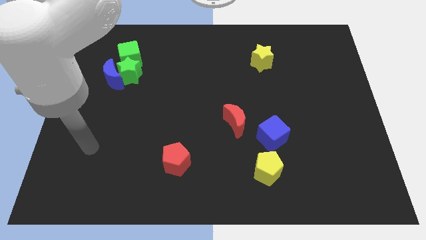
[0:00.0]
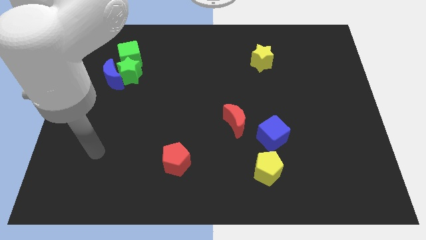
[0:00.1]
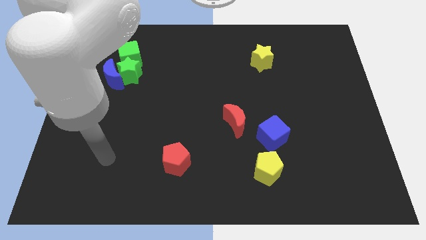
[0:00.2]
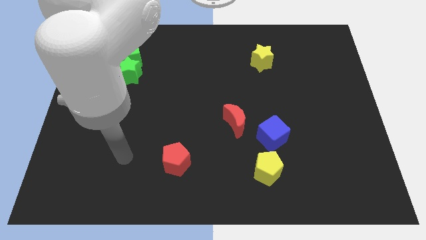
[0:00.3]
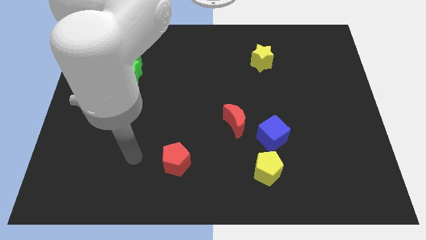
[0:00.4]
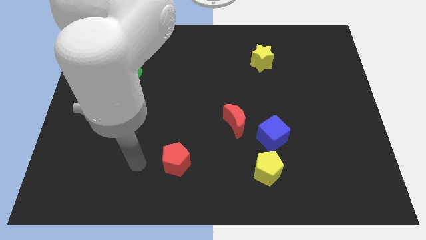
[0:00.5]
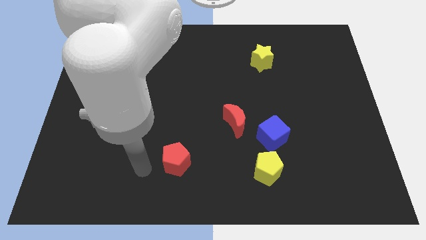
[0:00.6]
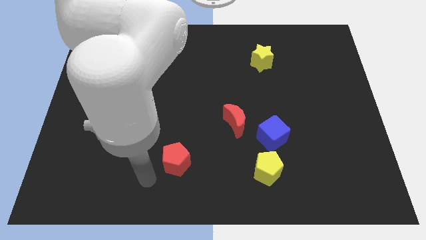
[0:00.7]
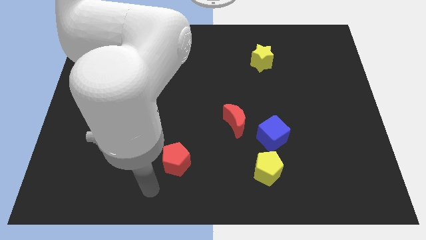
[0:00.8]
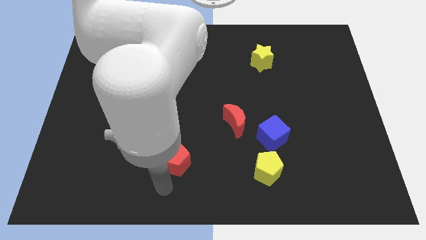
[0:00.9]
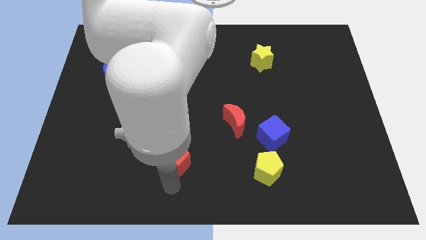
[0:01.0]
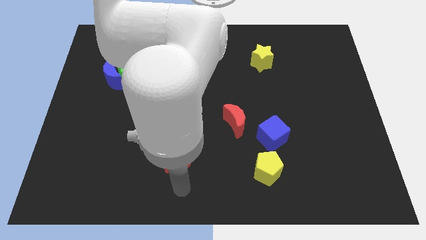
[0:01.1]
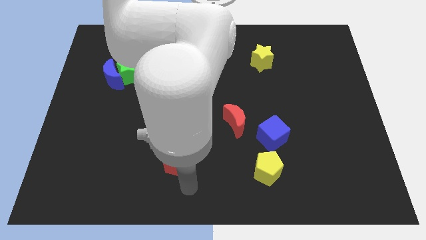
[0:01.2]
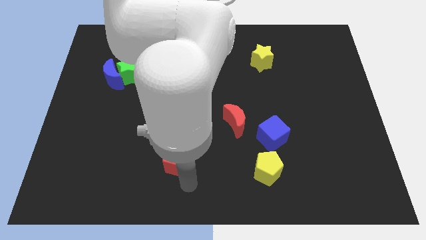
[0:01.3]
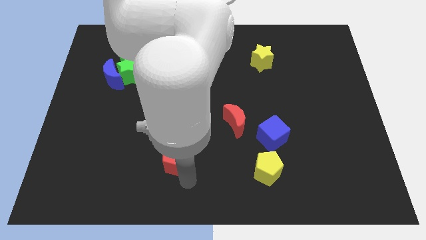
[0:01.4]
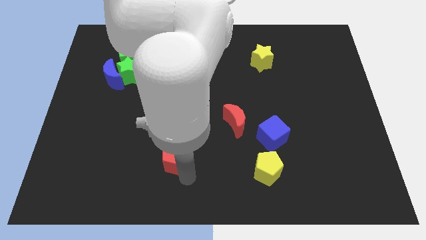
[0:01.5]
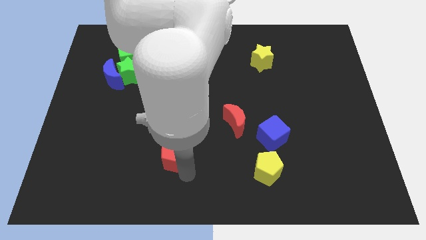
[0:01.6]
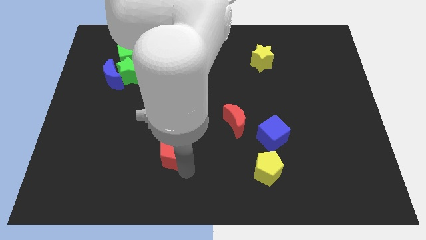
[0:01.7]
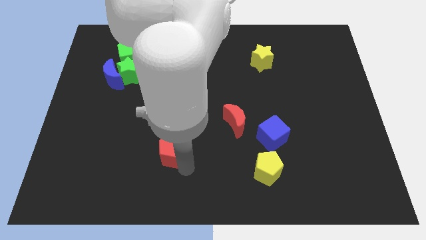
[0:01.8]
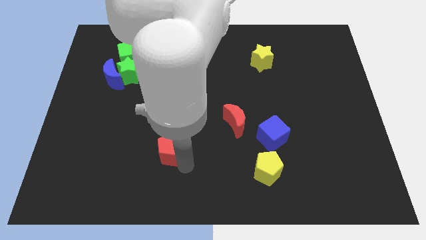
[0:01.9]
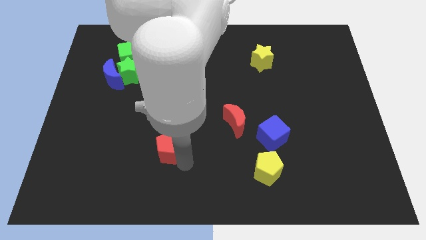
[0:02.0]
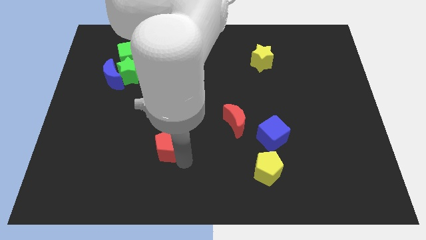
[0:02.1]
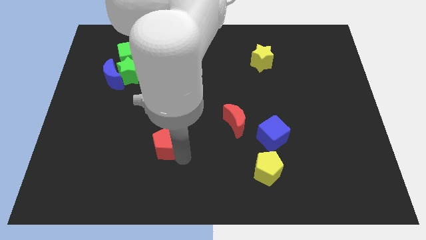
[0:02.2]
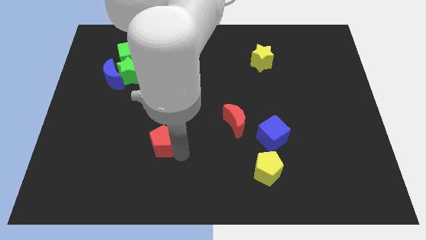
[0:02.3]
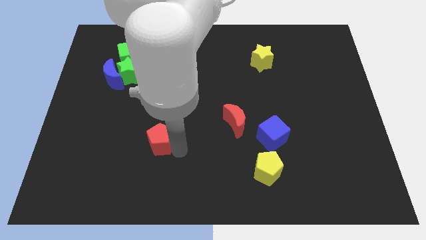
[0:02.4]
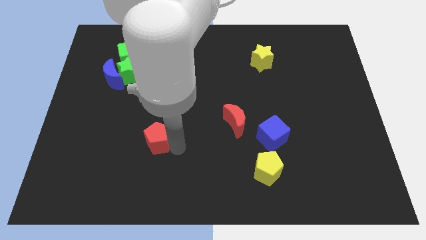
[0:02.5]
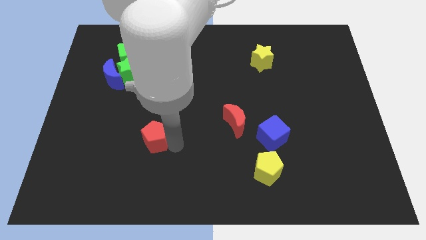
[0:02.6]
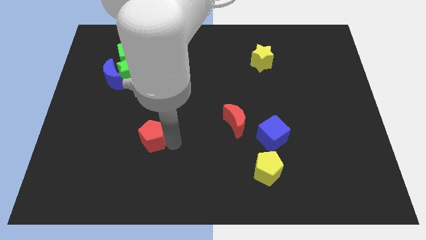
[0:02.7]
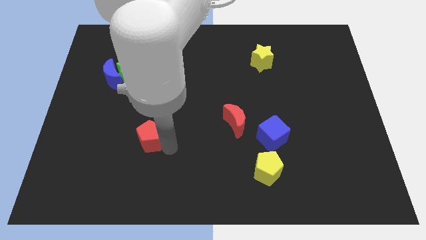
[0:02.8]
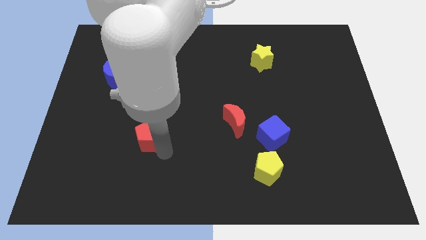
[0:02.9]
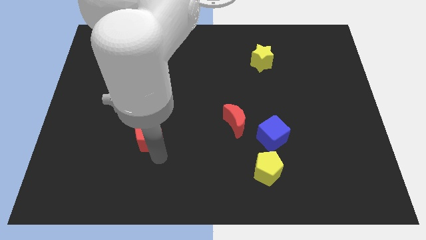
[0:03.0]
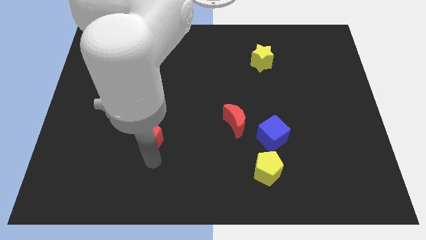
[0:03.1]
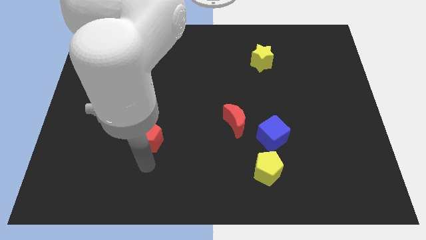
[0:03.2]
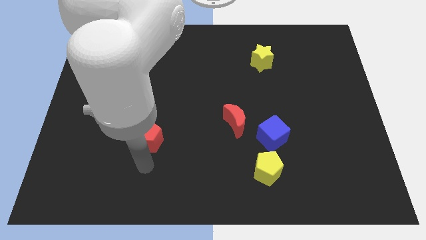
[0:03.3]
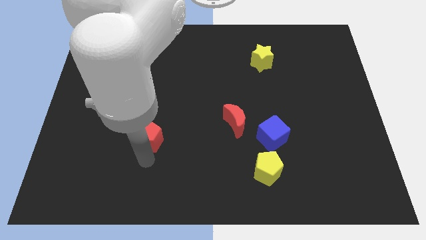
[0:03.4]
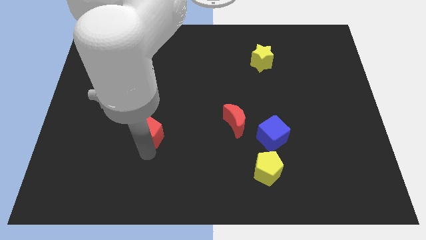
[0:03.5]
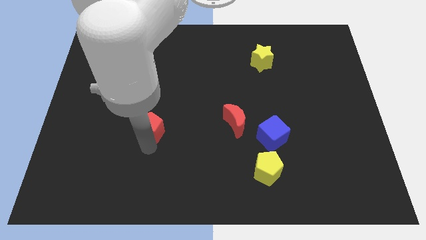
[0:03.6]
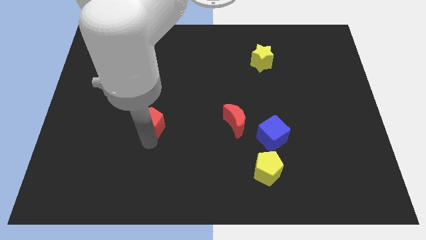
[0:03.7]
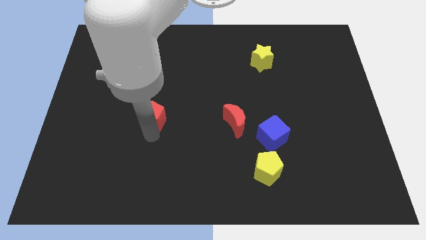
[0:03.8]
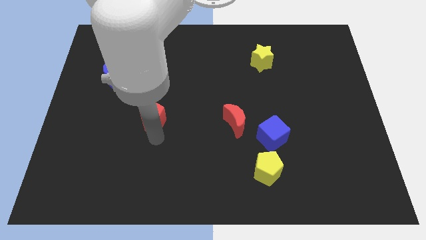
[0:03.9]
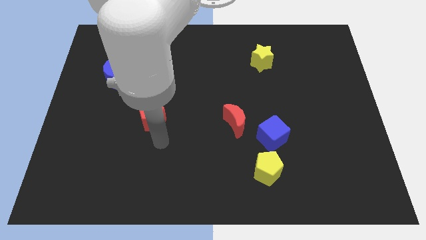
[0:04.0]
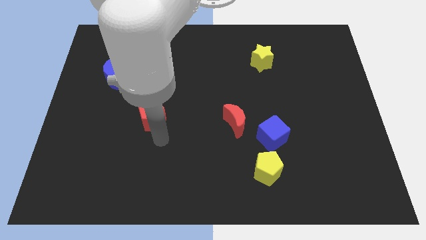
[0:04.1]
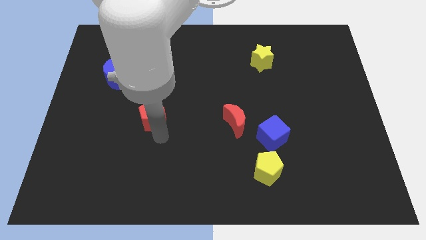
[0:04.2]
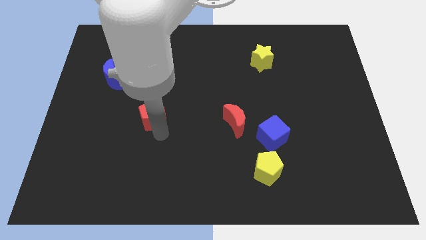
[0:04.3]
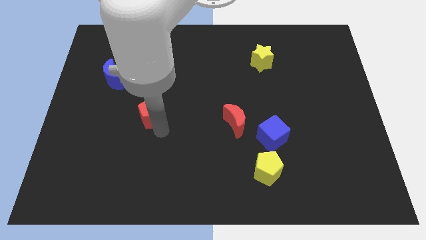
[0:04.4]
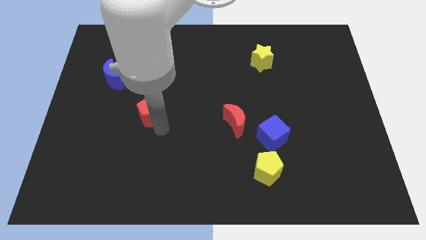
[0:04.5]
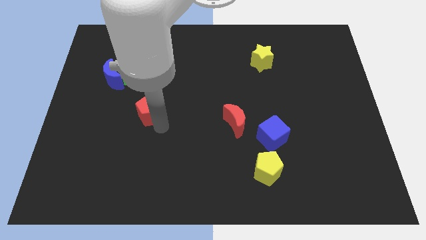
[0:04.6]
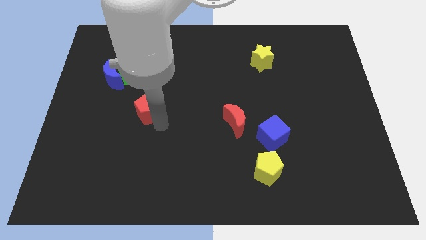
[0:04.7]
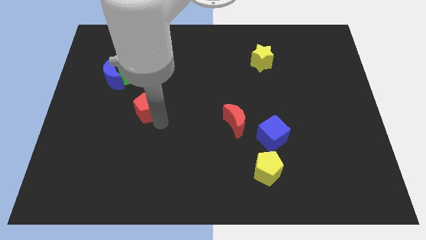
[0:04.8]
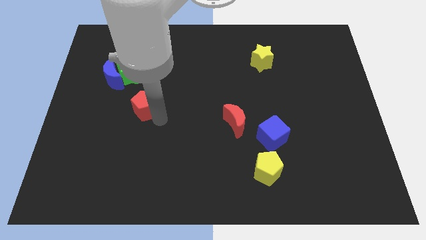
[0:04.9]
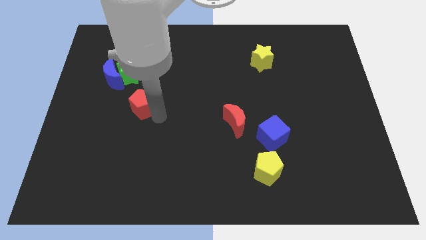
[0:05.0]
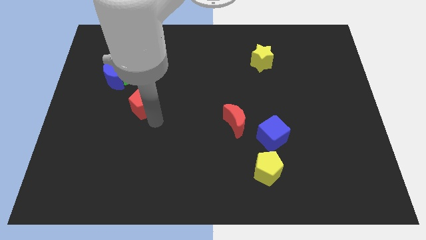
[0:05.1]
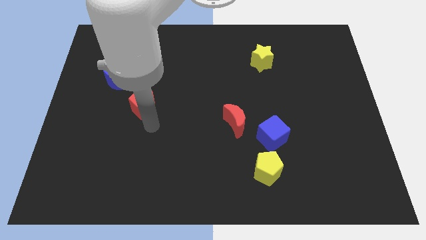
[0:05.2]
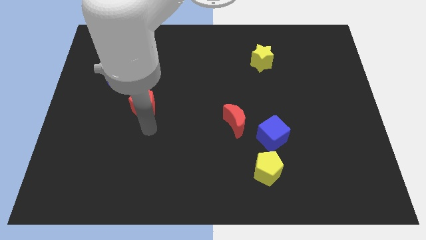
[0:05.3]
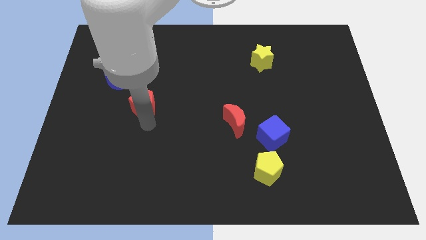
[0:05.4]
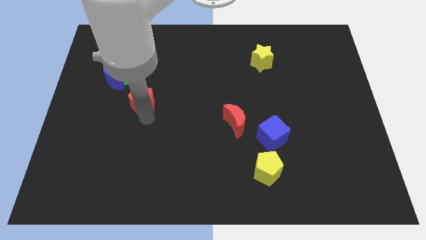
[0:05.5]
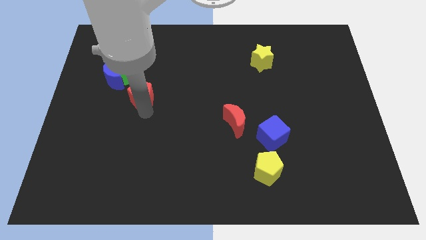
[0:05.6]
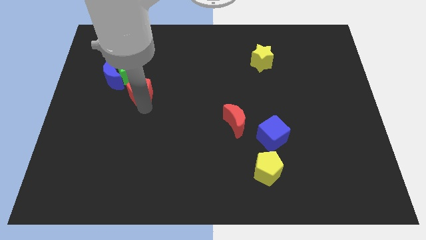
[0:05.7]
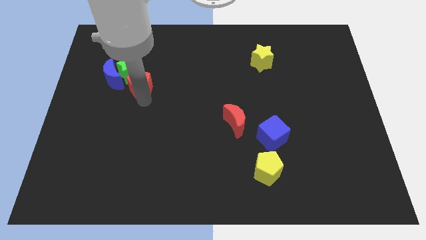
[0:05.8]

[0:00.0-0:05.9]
move the red pentagon close to the green star
